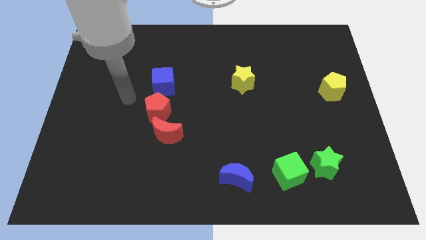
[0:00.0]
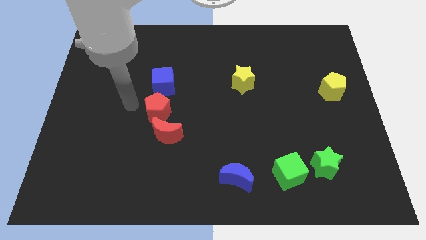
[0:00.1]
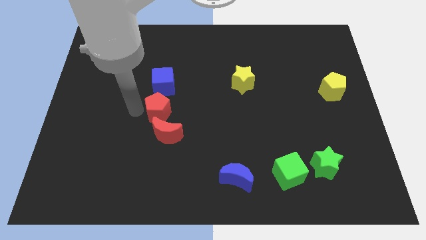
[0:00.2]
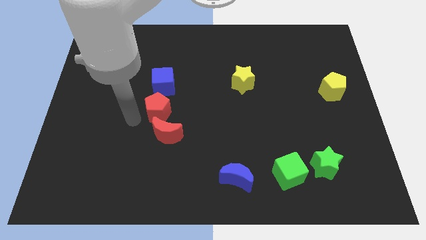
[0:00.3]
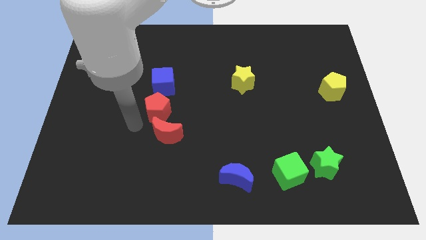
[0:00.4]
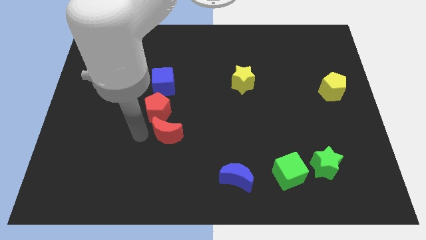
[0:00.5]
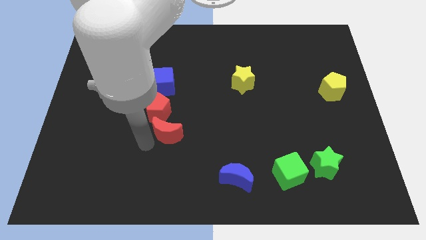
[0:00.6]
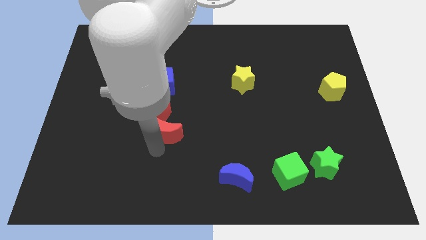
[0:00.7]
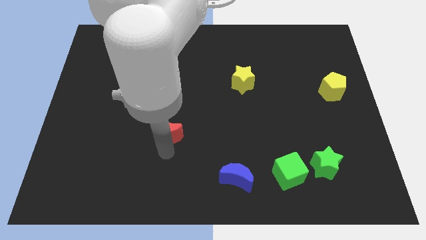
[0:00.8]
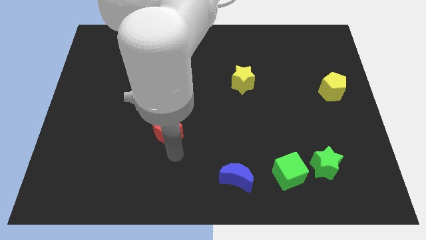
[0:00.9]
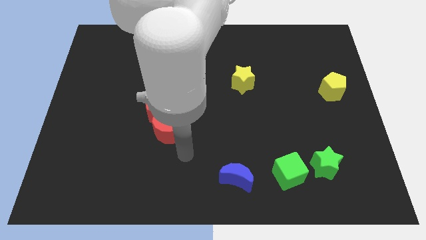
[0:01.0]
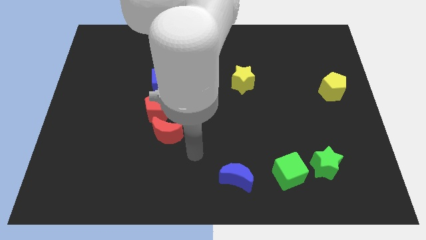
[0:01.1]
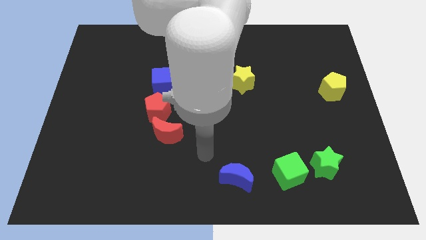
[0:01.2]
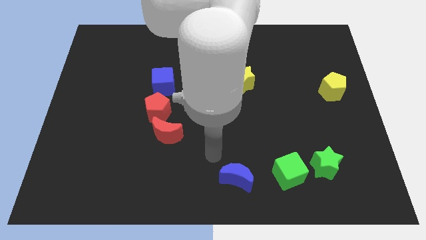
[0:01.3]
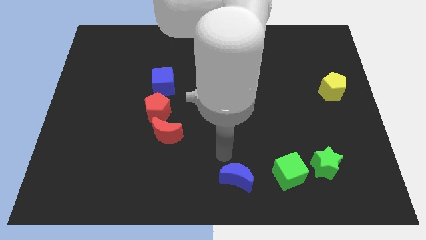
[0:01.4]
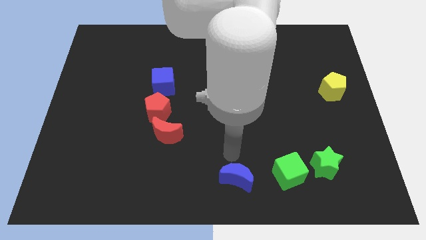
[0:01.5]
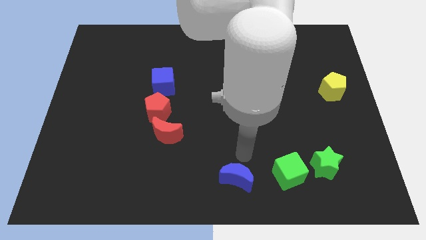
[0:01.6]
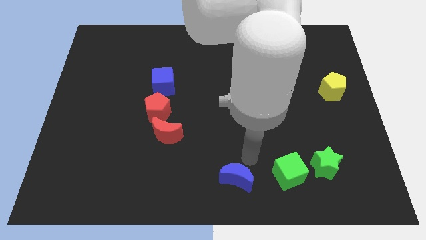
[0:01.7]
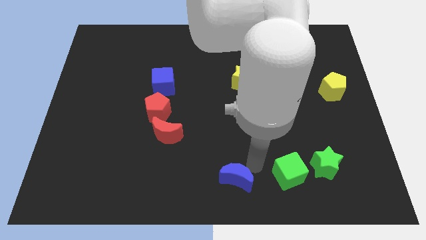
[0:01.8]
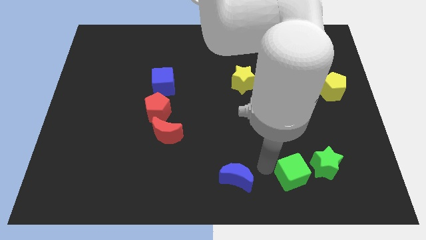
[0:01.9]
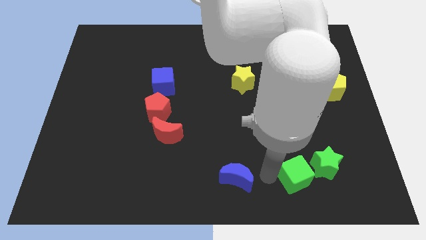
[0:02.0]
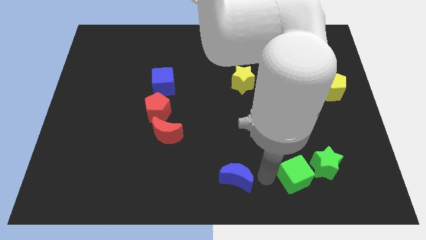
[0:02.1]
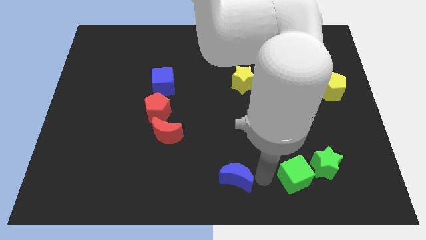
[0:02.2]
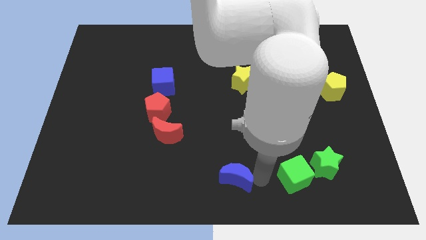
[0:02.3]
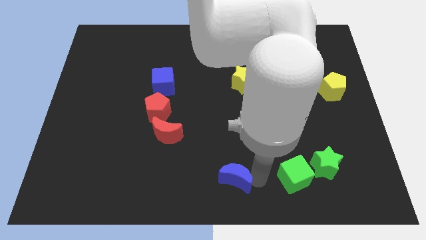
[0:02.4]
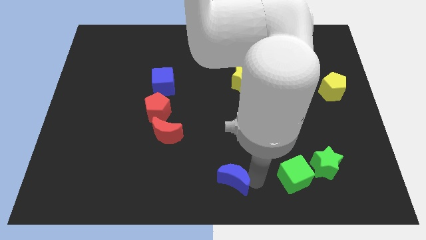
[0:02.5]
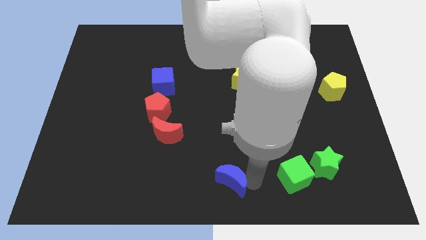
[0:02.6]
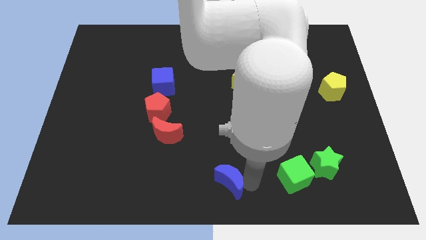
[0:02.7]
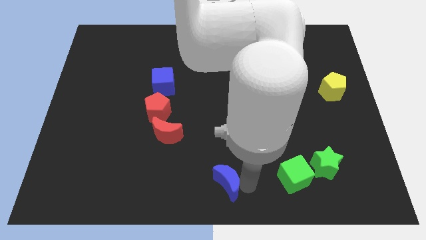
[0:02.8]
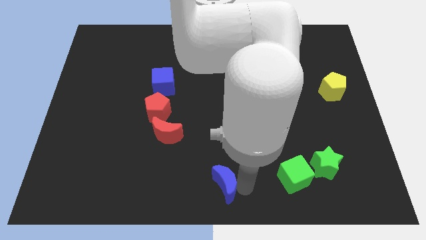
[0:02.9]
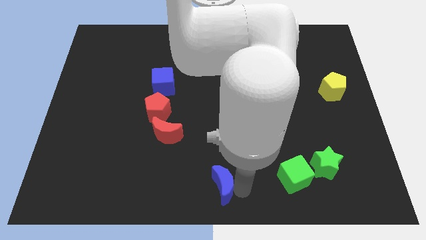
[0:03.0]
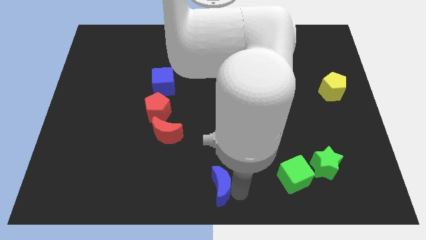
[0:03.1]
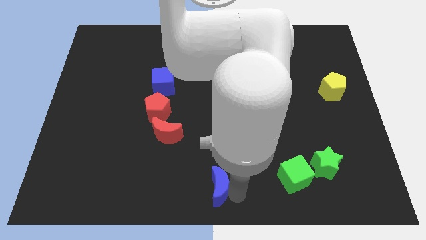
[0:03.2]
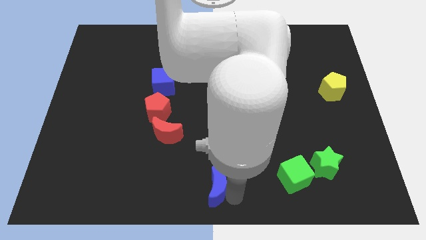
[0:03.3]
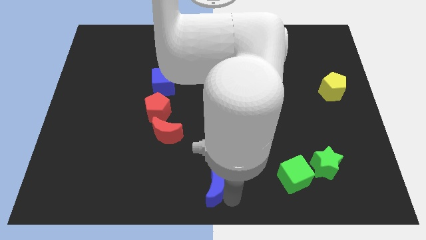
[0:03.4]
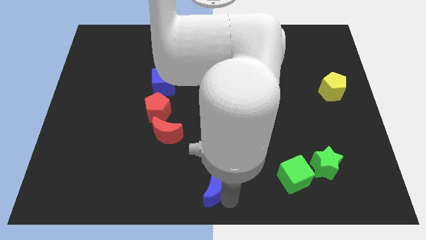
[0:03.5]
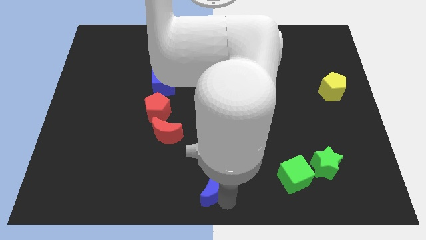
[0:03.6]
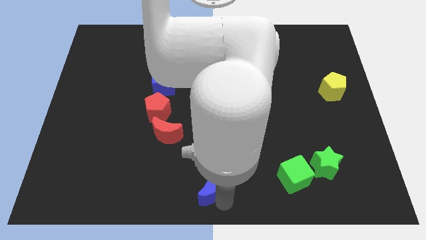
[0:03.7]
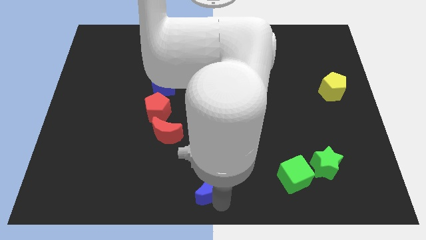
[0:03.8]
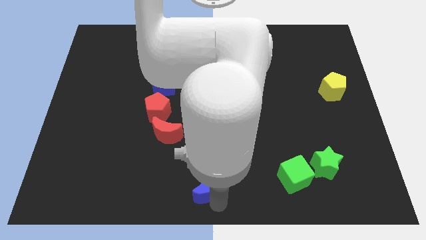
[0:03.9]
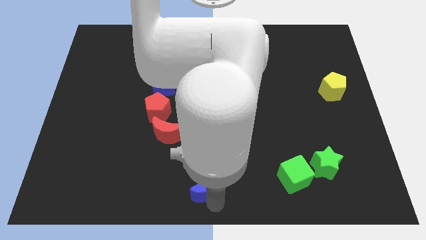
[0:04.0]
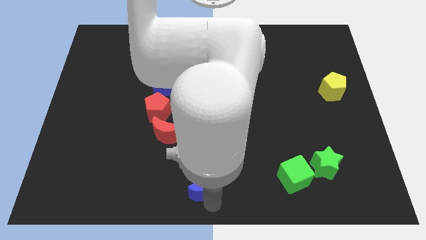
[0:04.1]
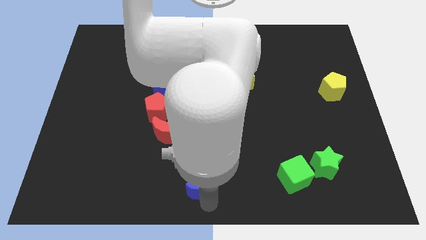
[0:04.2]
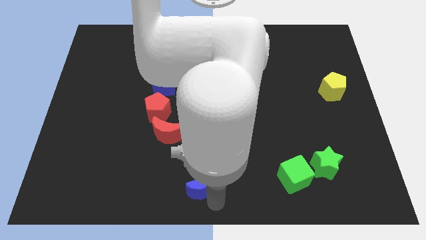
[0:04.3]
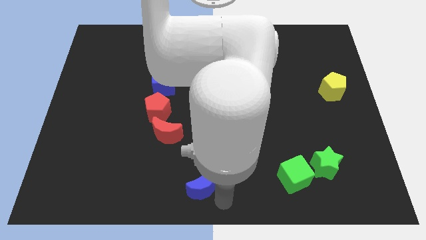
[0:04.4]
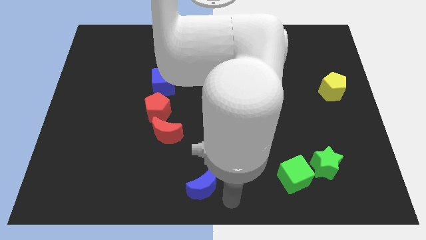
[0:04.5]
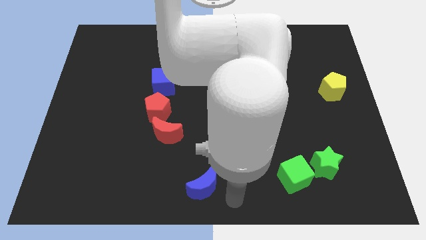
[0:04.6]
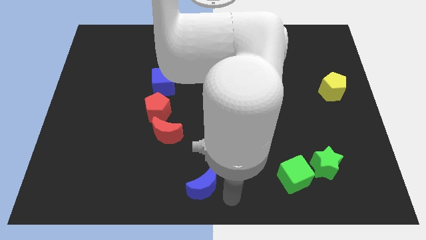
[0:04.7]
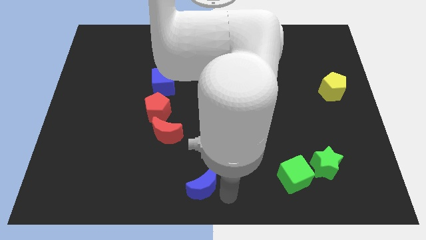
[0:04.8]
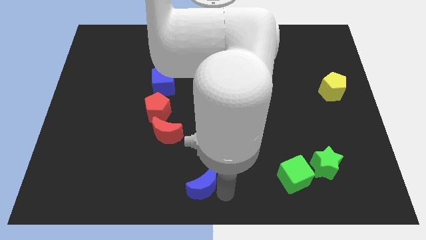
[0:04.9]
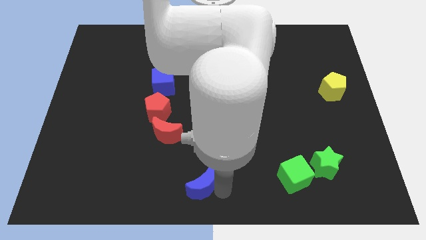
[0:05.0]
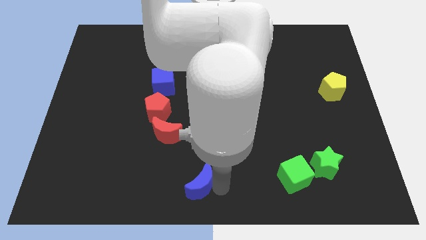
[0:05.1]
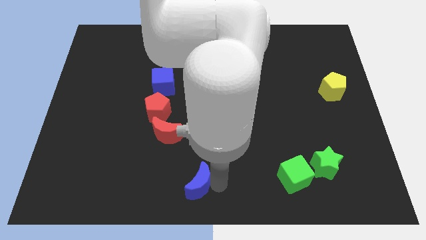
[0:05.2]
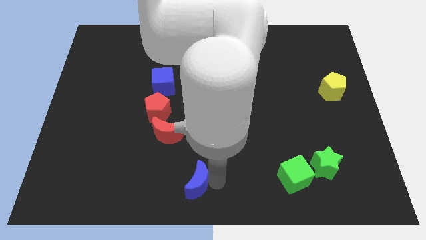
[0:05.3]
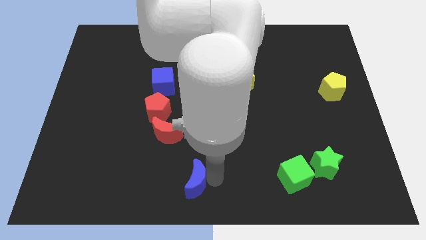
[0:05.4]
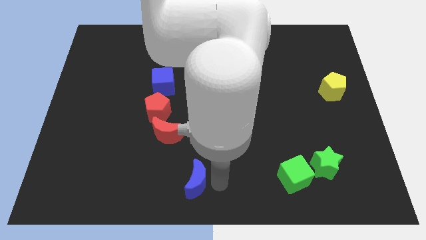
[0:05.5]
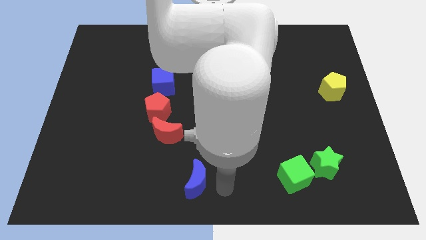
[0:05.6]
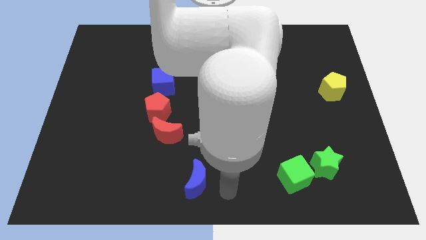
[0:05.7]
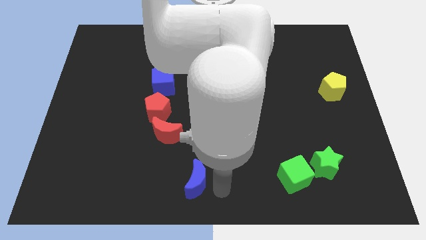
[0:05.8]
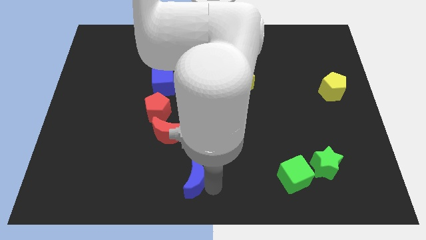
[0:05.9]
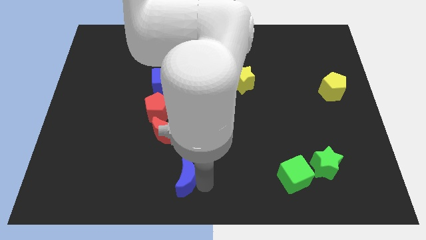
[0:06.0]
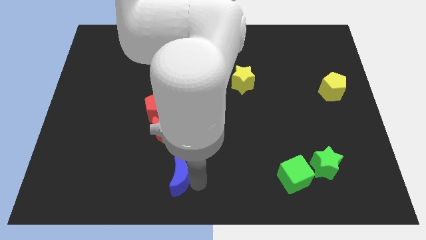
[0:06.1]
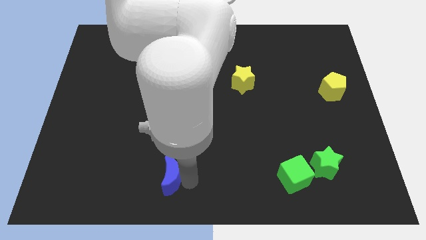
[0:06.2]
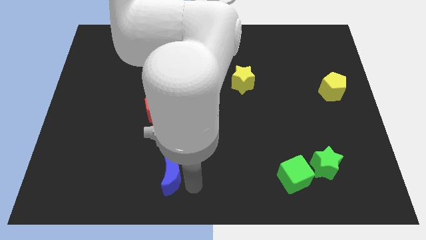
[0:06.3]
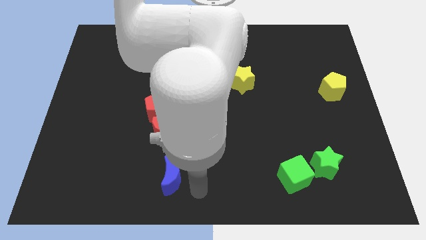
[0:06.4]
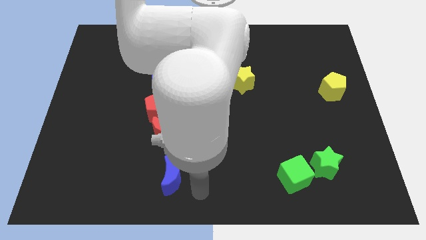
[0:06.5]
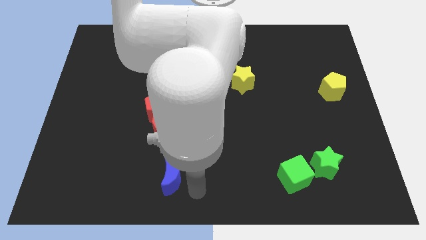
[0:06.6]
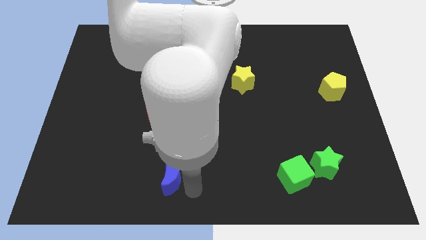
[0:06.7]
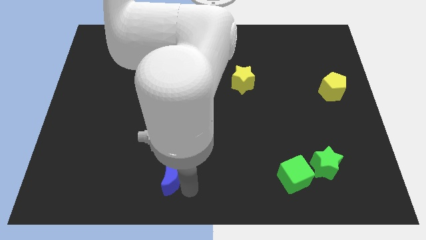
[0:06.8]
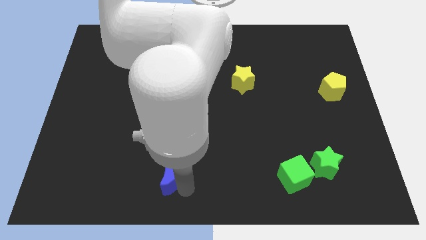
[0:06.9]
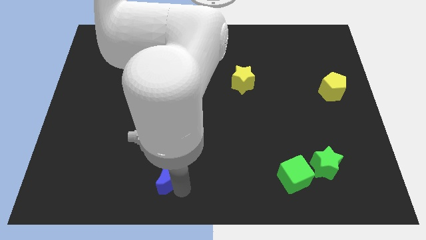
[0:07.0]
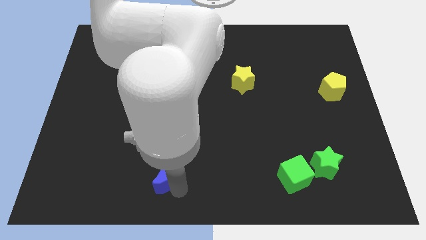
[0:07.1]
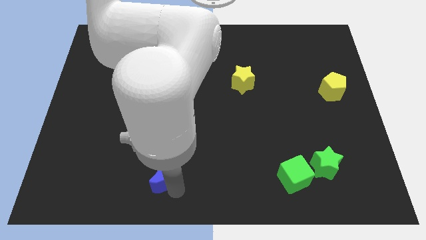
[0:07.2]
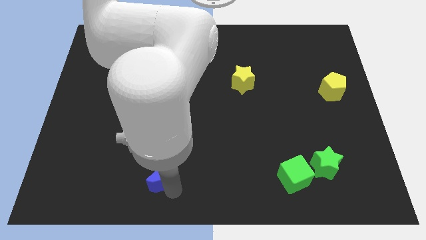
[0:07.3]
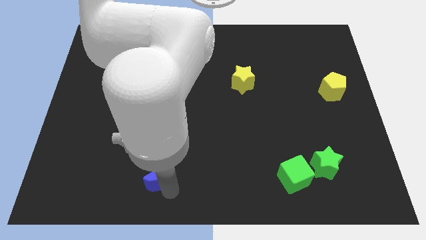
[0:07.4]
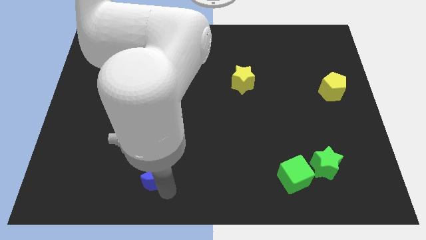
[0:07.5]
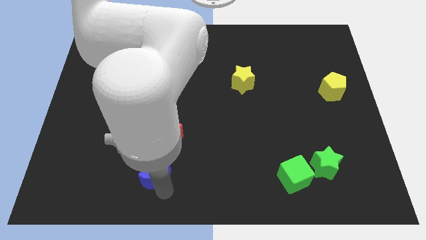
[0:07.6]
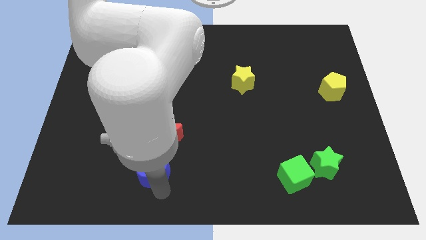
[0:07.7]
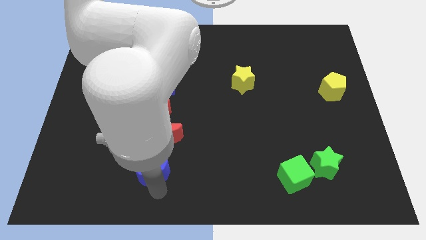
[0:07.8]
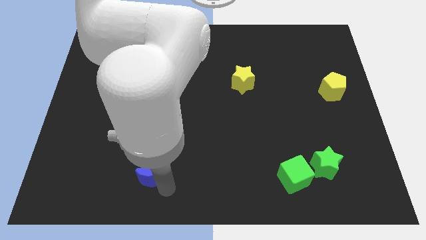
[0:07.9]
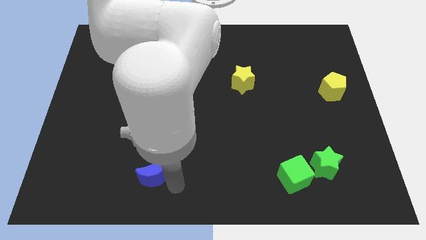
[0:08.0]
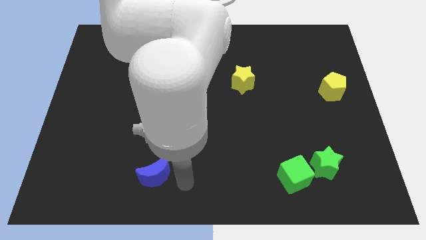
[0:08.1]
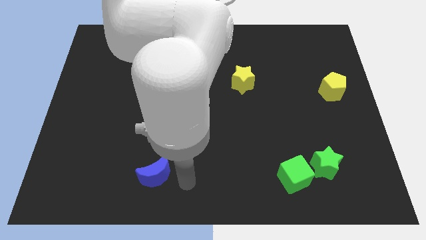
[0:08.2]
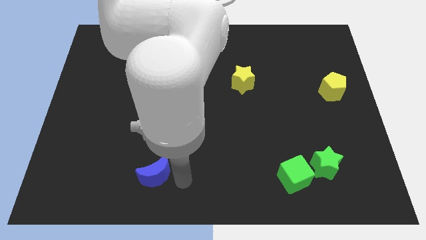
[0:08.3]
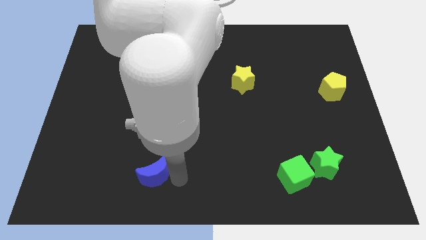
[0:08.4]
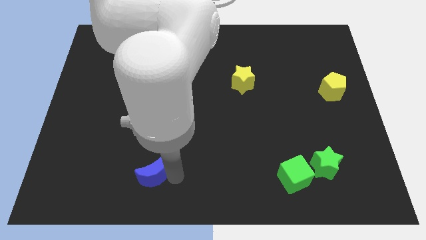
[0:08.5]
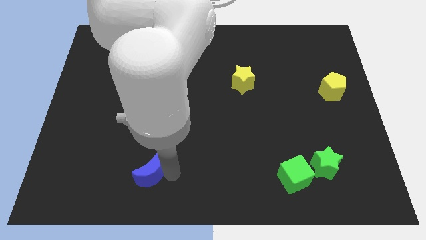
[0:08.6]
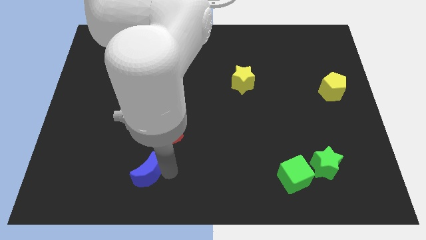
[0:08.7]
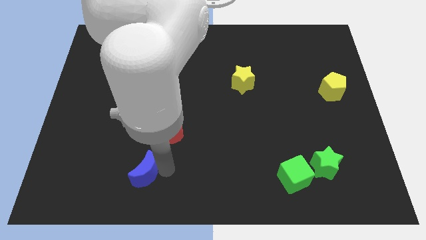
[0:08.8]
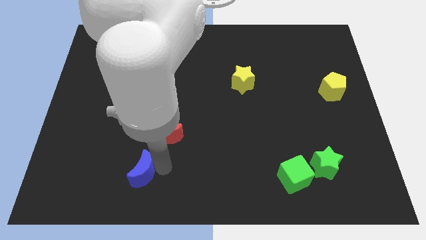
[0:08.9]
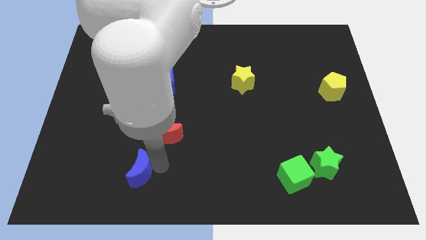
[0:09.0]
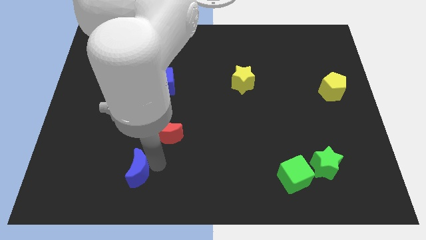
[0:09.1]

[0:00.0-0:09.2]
move the blue moon left
